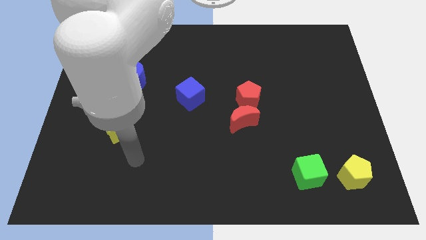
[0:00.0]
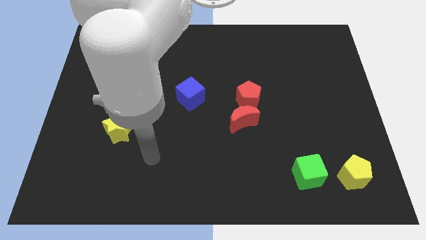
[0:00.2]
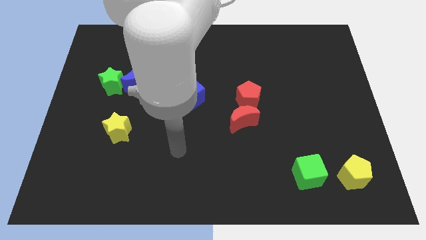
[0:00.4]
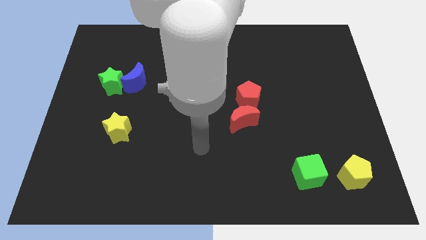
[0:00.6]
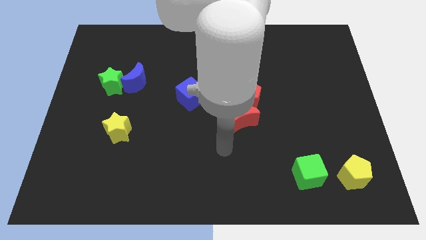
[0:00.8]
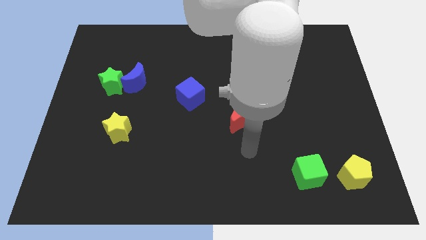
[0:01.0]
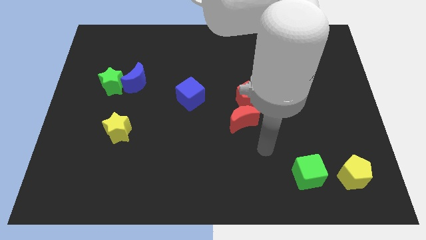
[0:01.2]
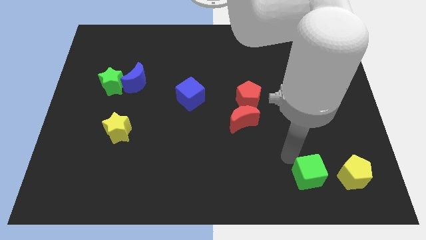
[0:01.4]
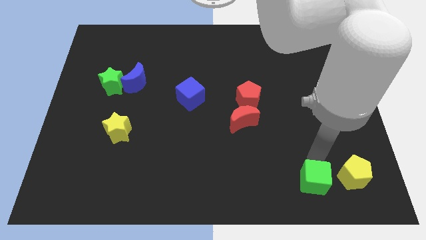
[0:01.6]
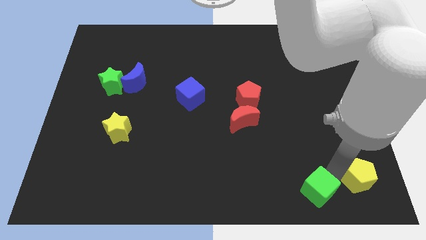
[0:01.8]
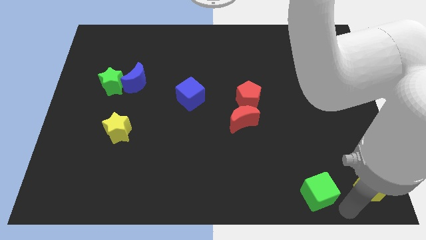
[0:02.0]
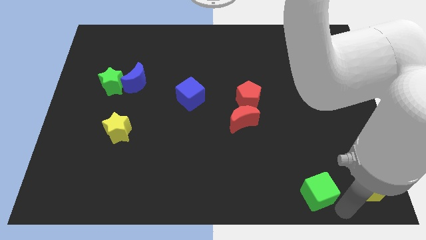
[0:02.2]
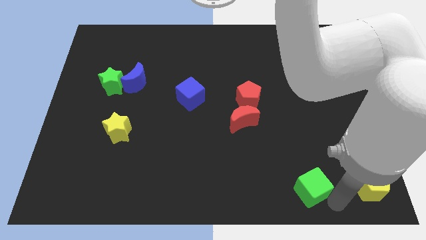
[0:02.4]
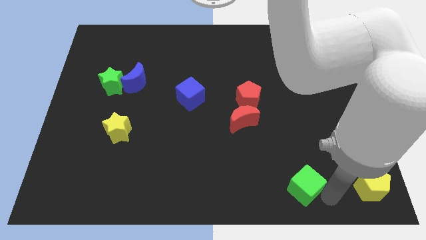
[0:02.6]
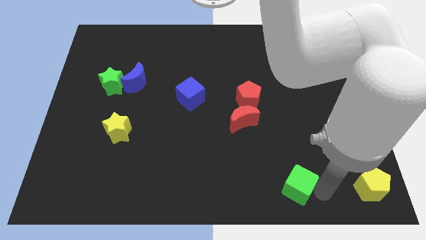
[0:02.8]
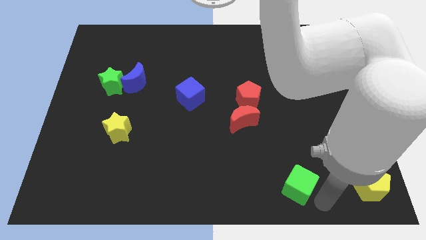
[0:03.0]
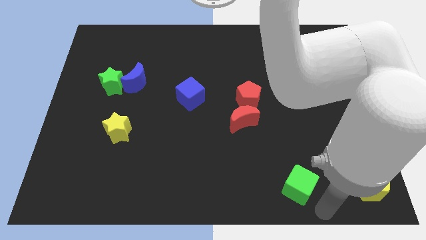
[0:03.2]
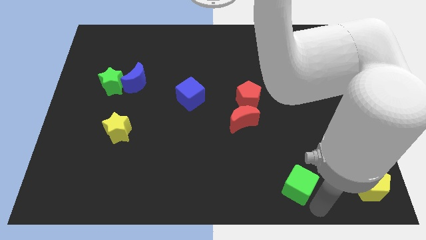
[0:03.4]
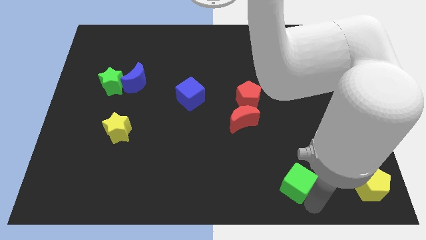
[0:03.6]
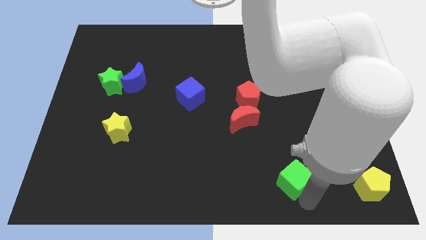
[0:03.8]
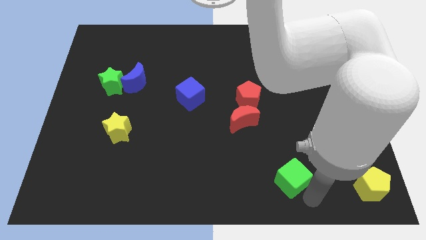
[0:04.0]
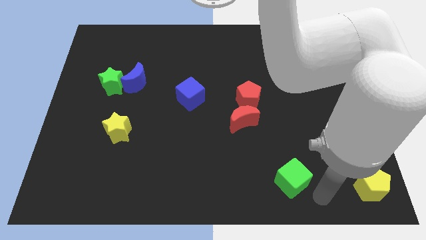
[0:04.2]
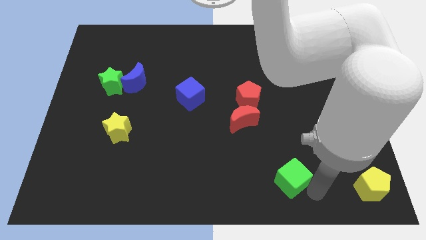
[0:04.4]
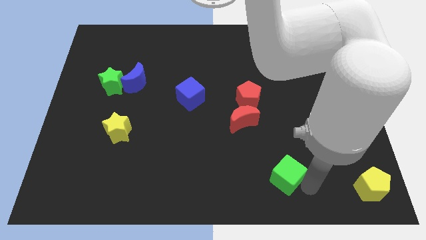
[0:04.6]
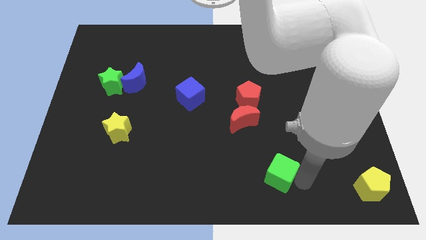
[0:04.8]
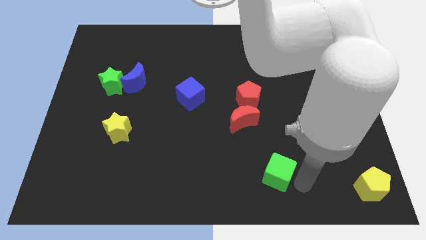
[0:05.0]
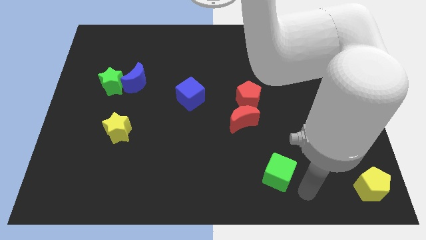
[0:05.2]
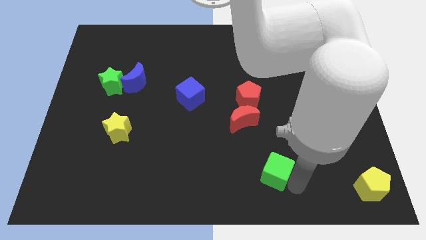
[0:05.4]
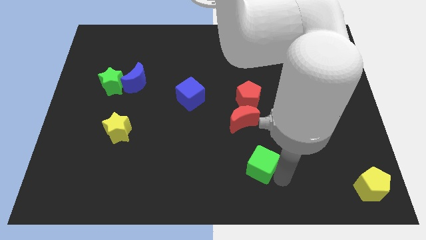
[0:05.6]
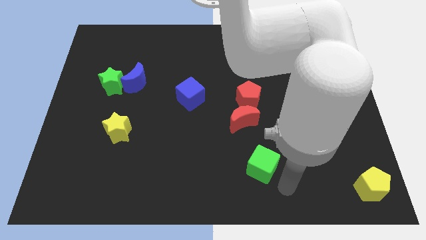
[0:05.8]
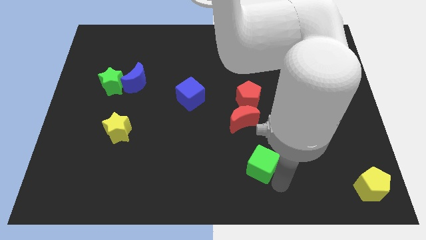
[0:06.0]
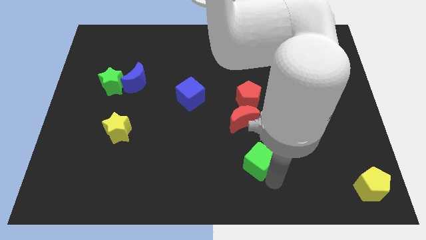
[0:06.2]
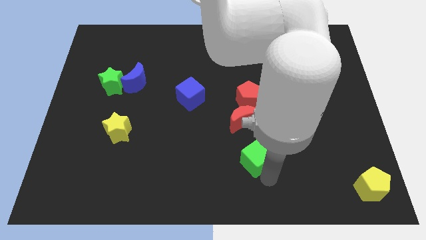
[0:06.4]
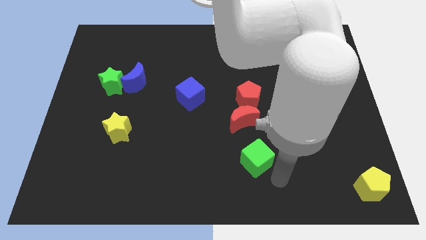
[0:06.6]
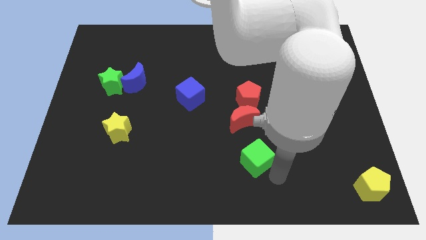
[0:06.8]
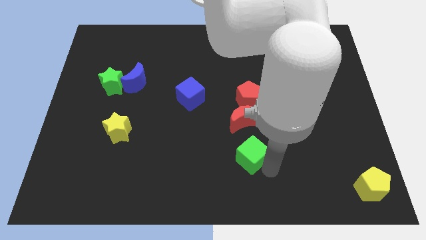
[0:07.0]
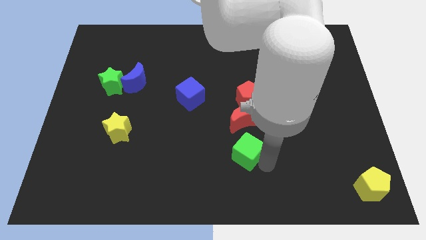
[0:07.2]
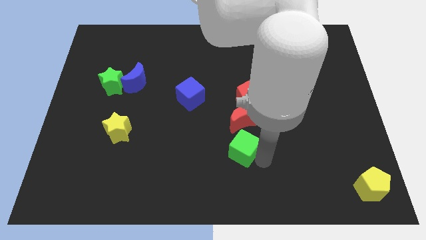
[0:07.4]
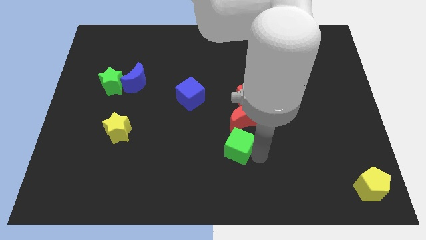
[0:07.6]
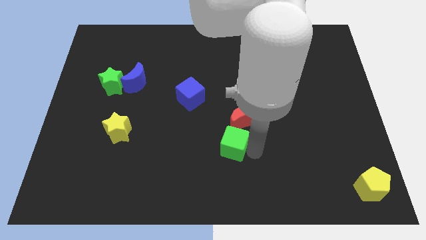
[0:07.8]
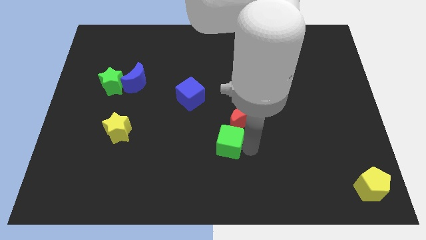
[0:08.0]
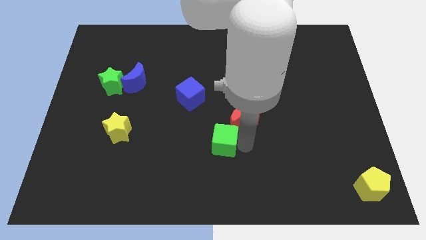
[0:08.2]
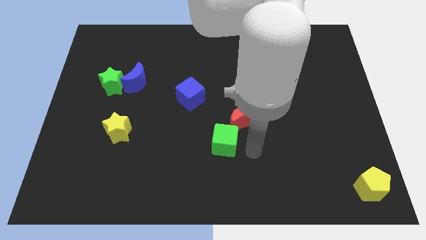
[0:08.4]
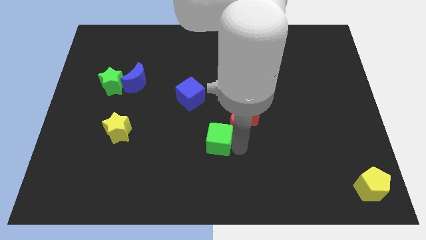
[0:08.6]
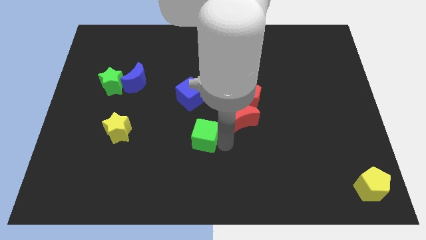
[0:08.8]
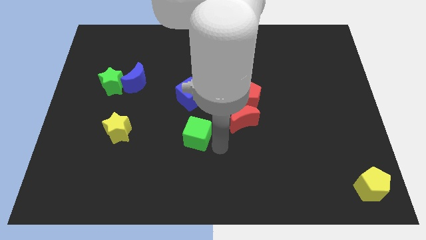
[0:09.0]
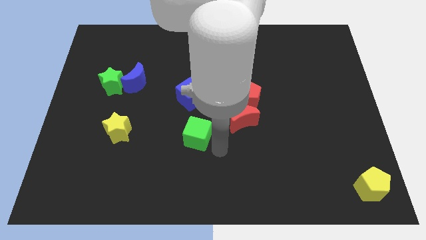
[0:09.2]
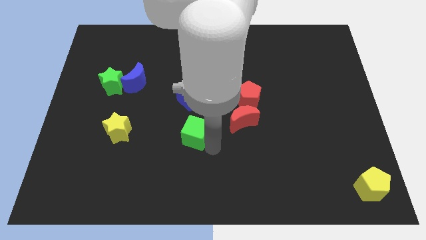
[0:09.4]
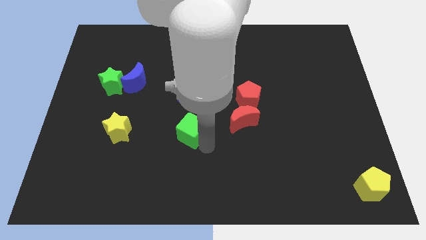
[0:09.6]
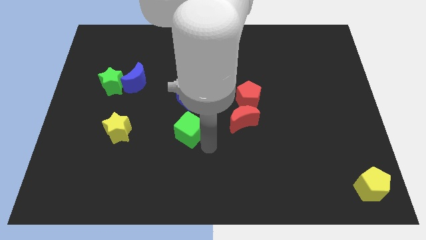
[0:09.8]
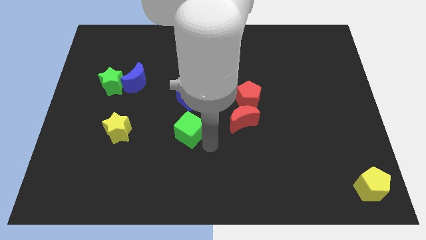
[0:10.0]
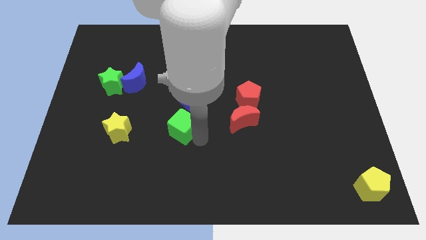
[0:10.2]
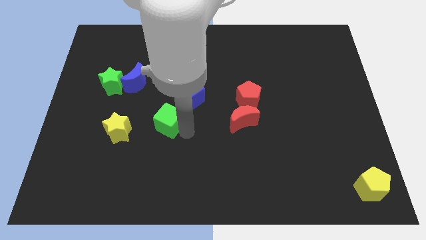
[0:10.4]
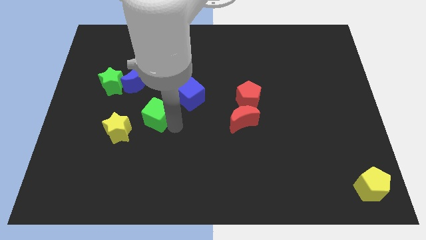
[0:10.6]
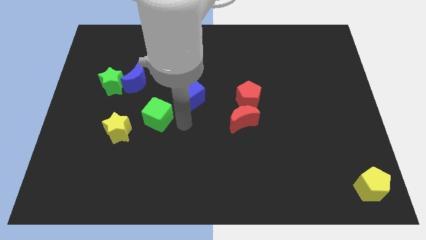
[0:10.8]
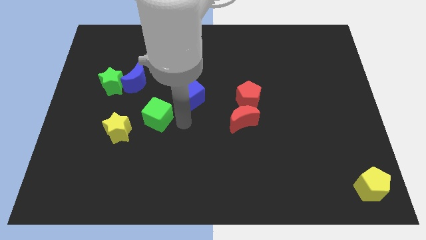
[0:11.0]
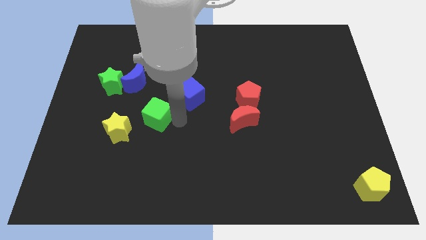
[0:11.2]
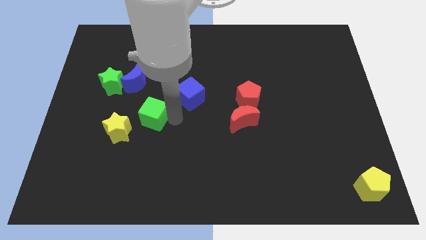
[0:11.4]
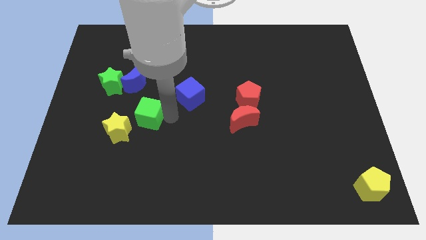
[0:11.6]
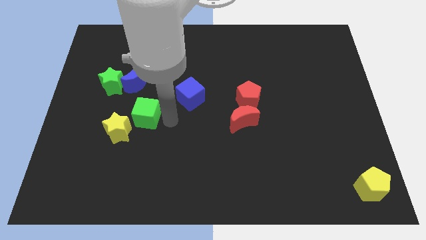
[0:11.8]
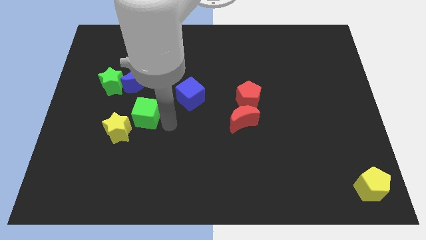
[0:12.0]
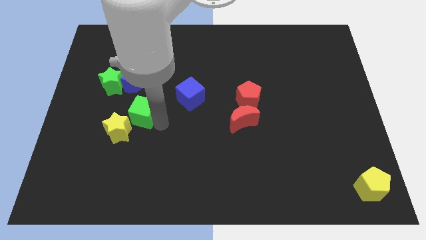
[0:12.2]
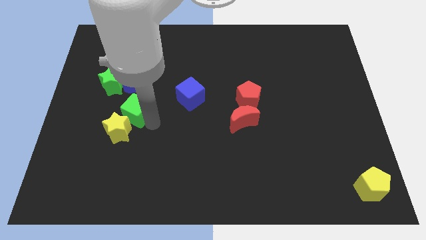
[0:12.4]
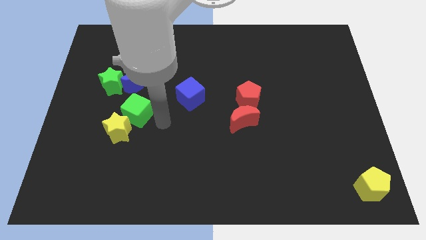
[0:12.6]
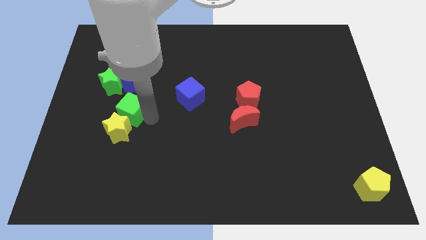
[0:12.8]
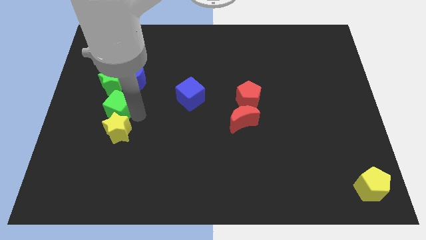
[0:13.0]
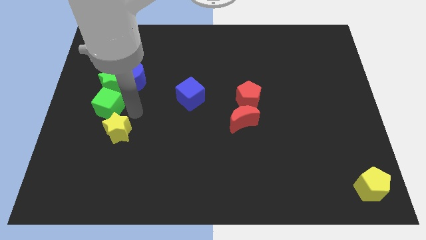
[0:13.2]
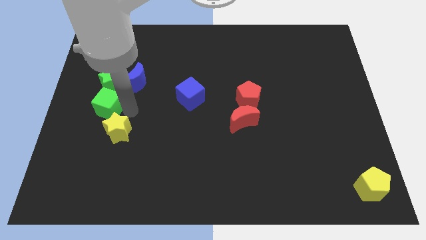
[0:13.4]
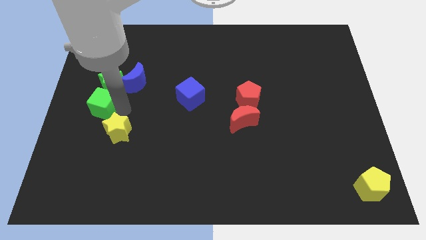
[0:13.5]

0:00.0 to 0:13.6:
slide the green cube to the center left
